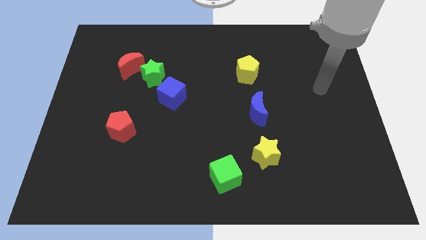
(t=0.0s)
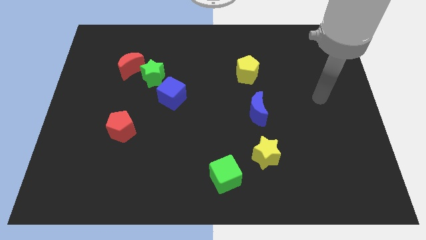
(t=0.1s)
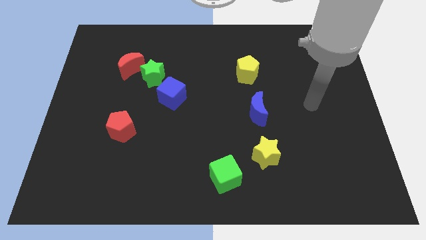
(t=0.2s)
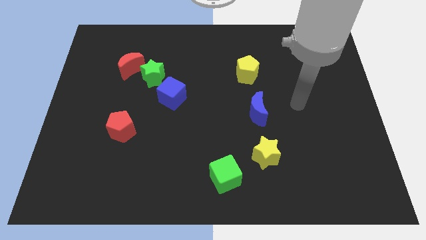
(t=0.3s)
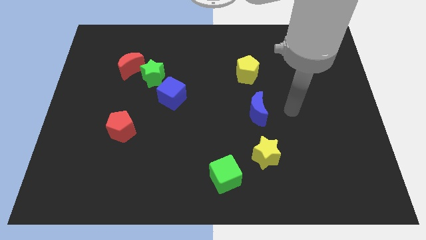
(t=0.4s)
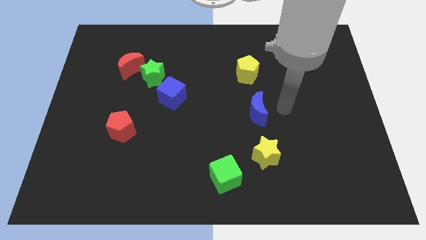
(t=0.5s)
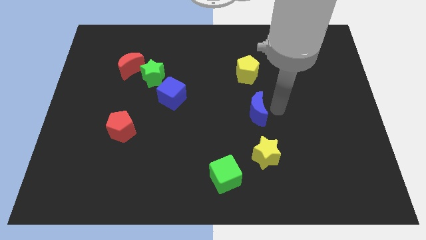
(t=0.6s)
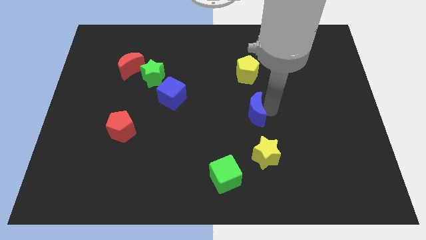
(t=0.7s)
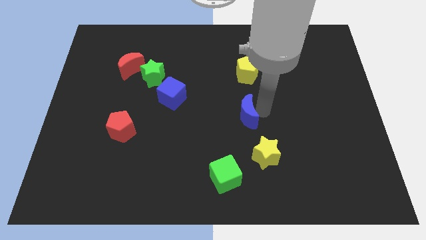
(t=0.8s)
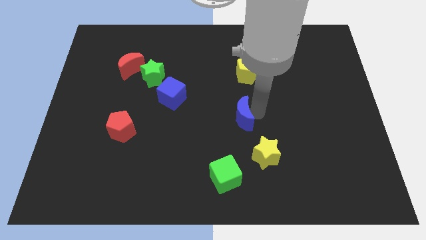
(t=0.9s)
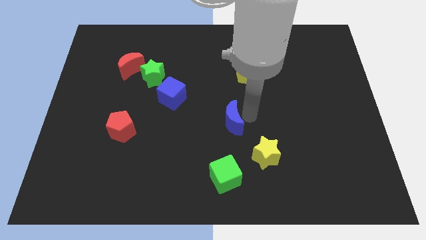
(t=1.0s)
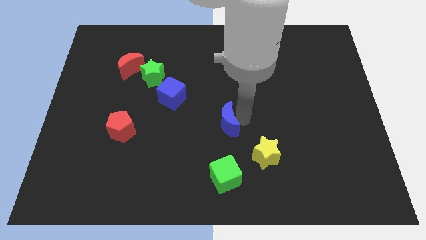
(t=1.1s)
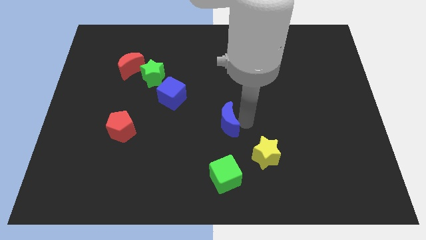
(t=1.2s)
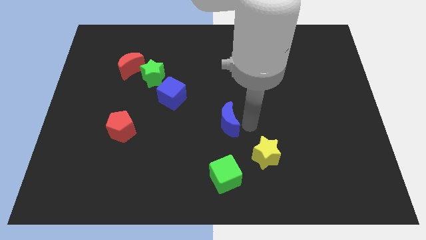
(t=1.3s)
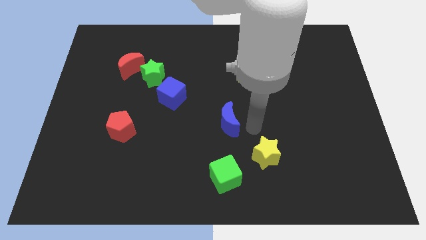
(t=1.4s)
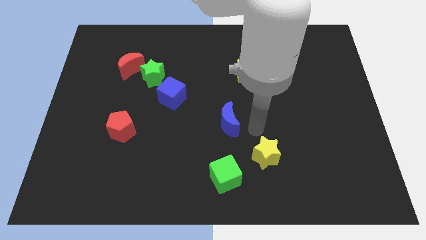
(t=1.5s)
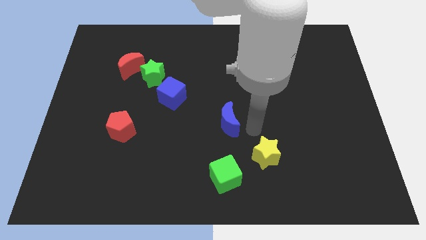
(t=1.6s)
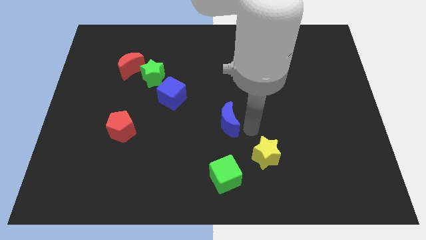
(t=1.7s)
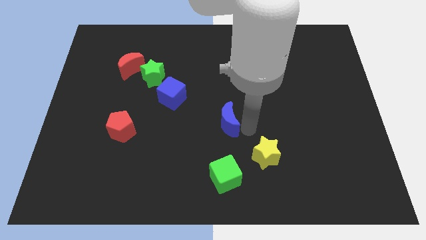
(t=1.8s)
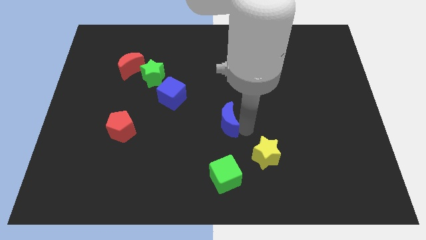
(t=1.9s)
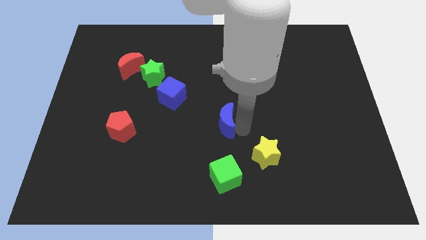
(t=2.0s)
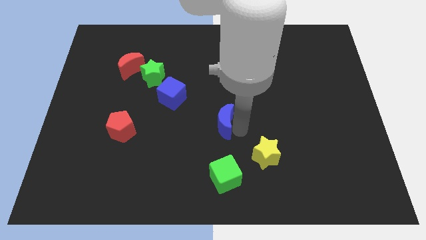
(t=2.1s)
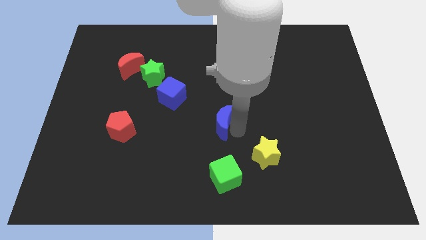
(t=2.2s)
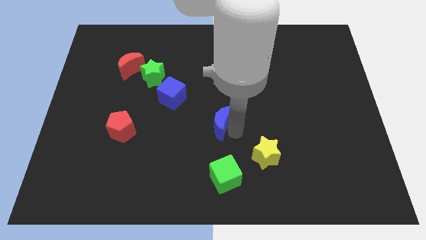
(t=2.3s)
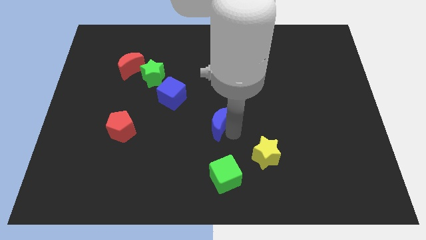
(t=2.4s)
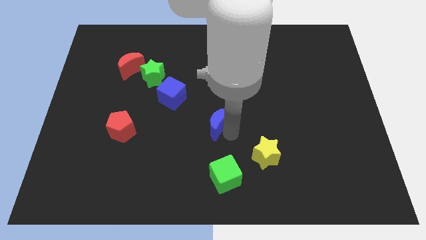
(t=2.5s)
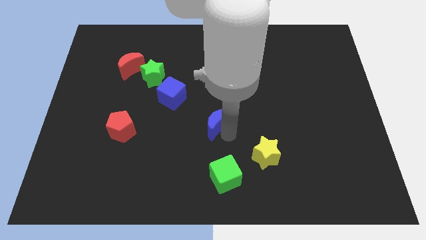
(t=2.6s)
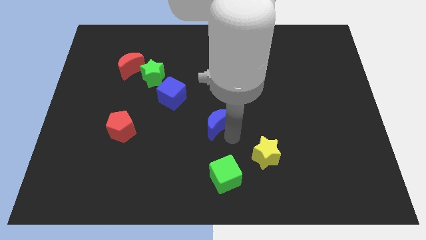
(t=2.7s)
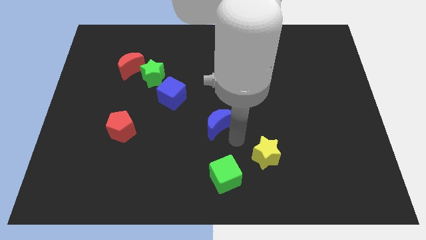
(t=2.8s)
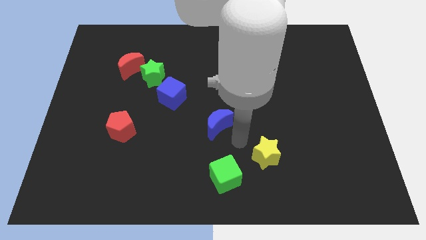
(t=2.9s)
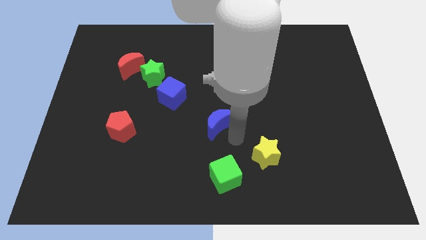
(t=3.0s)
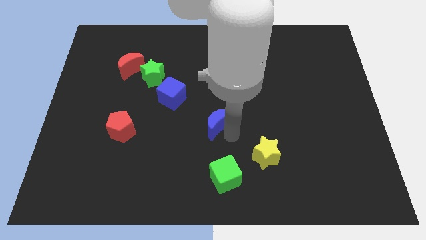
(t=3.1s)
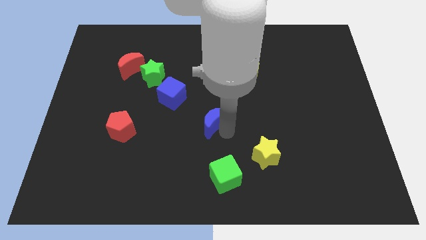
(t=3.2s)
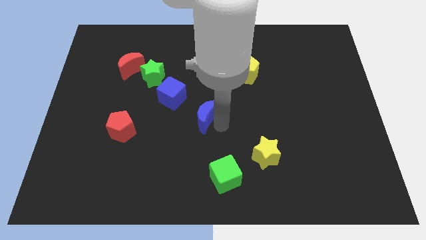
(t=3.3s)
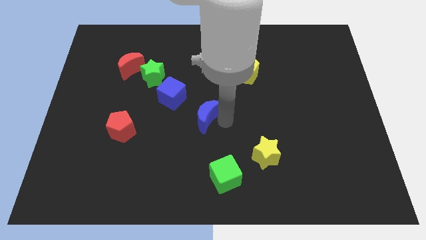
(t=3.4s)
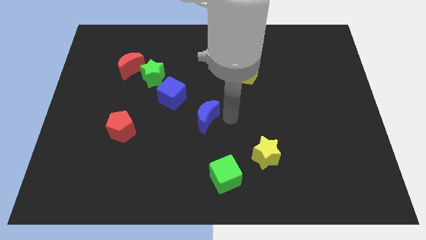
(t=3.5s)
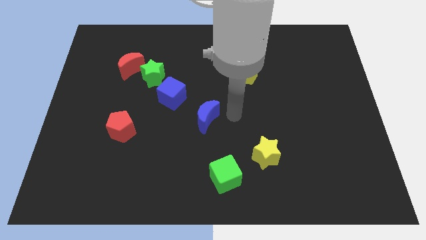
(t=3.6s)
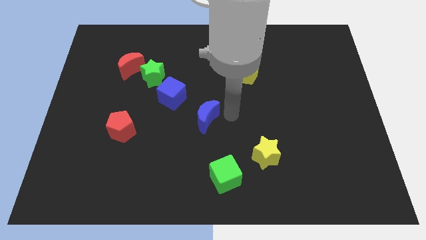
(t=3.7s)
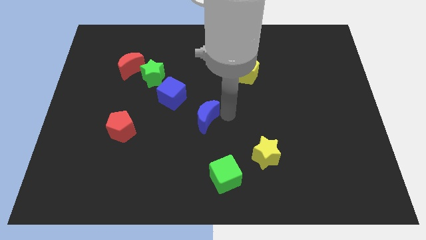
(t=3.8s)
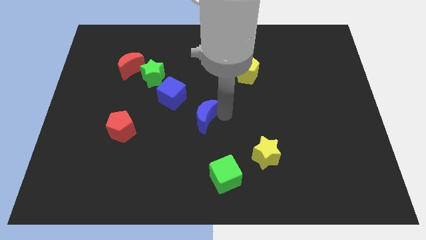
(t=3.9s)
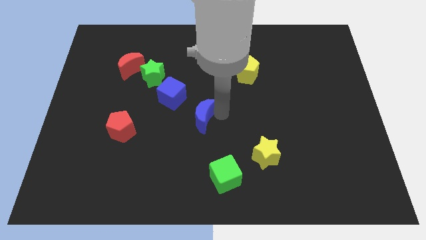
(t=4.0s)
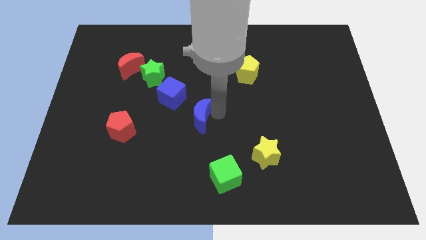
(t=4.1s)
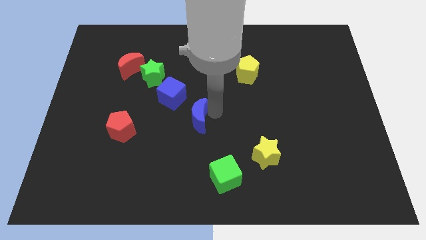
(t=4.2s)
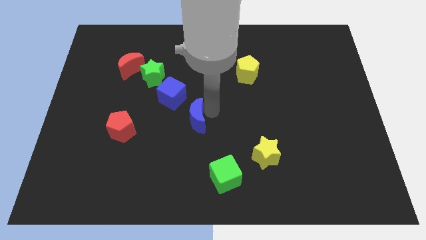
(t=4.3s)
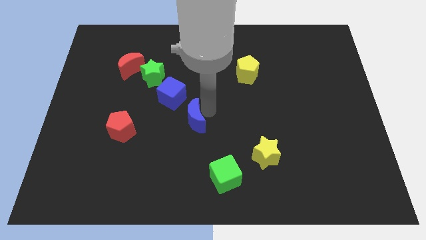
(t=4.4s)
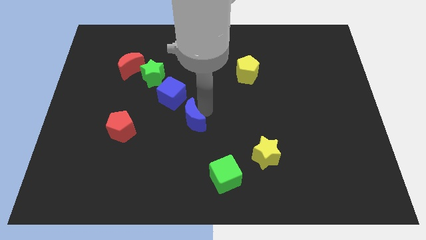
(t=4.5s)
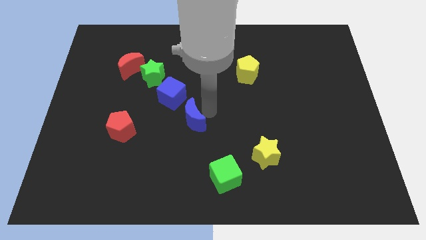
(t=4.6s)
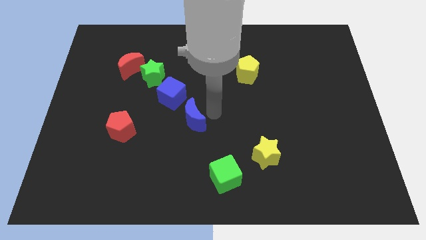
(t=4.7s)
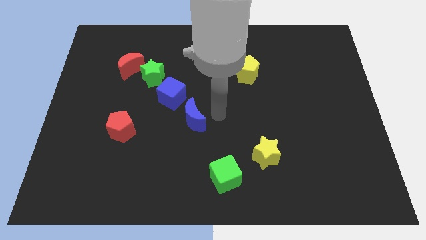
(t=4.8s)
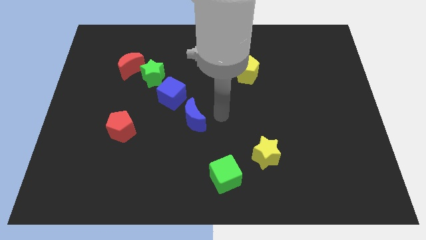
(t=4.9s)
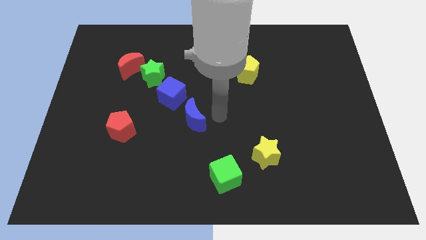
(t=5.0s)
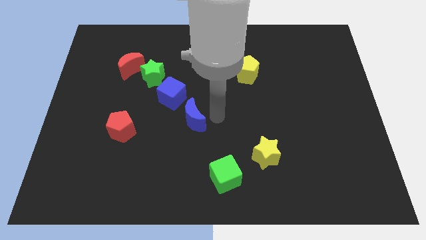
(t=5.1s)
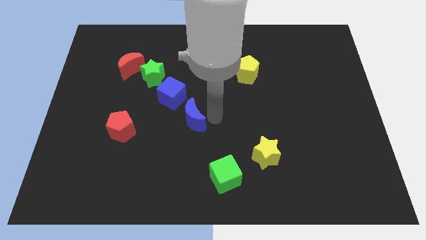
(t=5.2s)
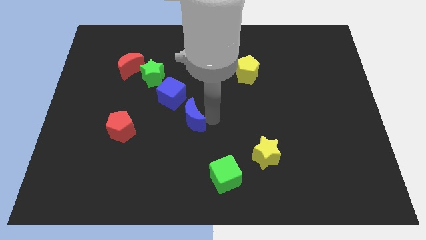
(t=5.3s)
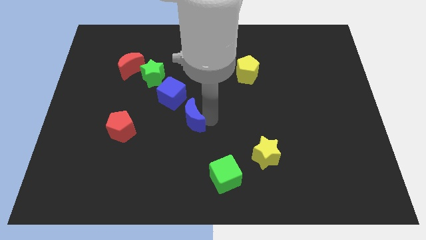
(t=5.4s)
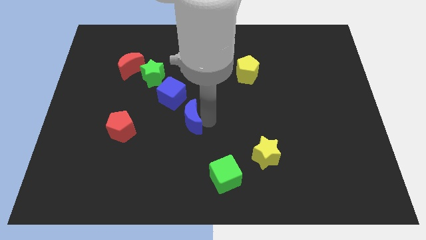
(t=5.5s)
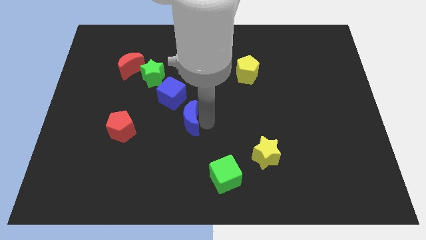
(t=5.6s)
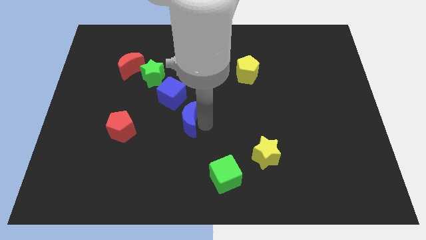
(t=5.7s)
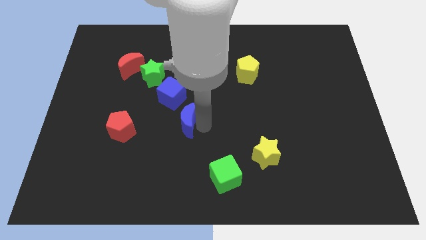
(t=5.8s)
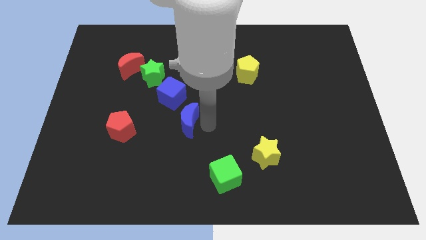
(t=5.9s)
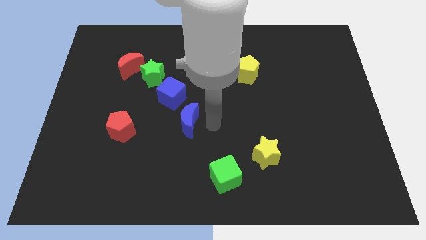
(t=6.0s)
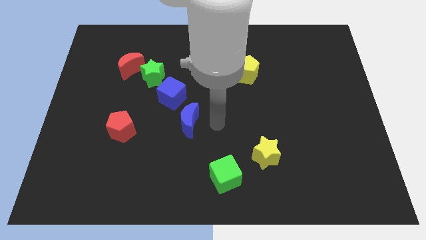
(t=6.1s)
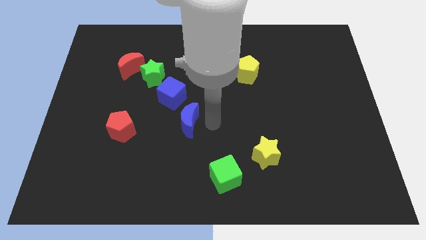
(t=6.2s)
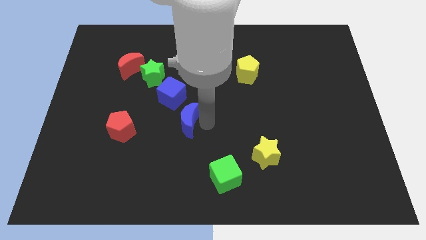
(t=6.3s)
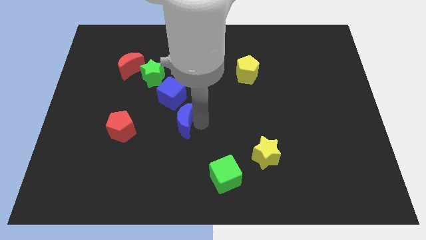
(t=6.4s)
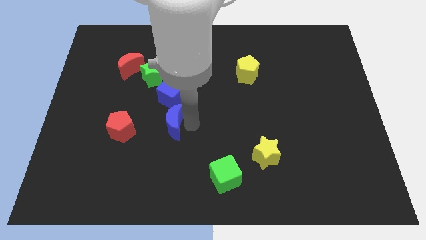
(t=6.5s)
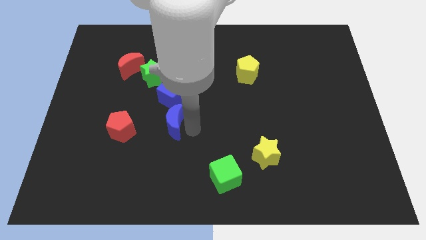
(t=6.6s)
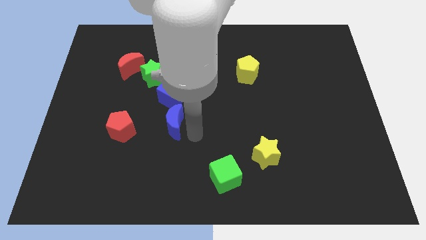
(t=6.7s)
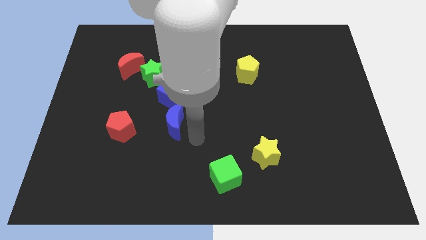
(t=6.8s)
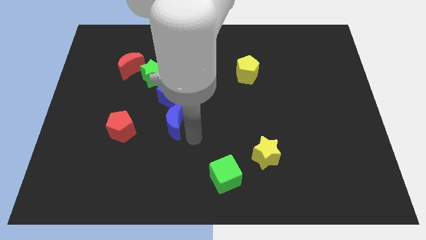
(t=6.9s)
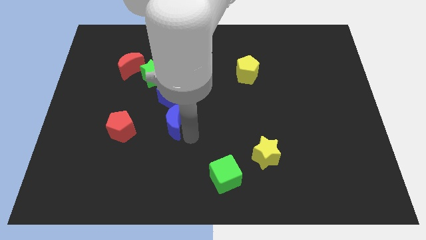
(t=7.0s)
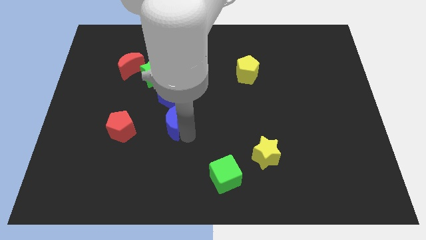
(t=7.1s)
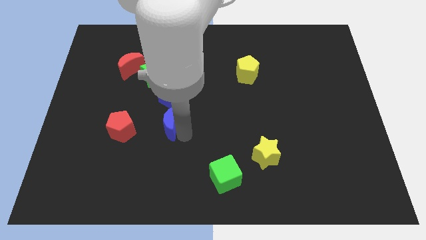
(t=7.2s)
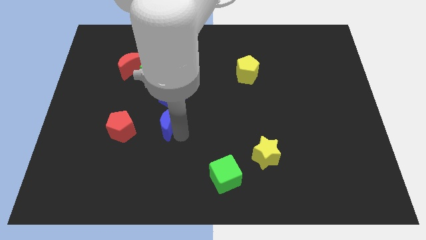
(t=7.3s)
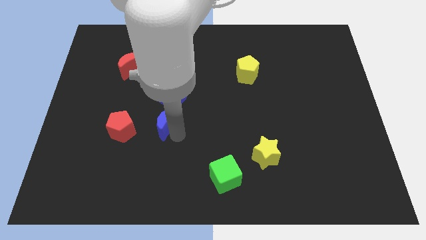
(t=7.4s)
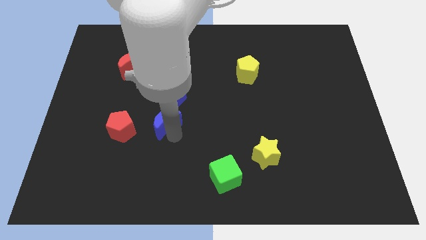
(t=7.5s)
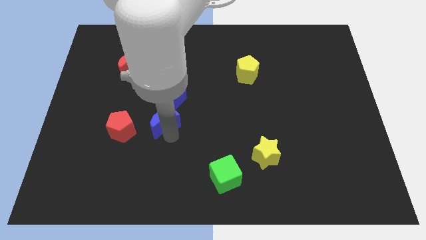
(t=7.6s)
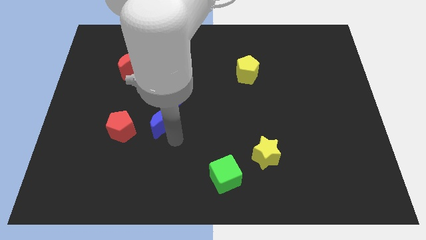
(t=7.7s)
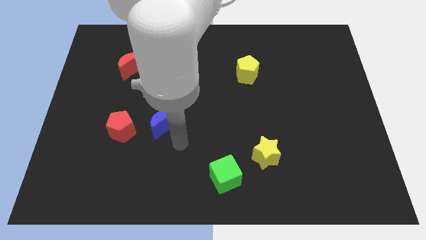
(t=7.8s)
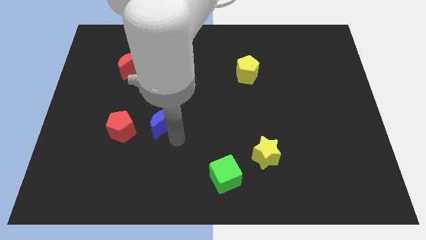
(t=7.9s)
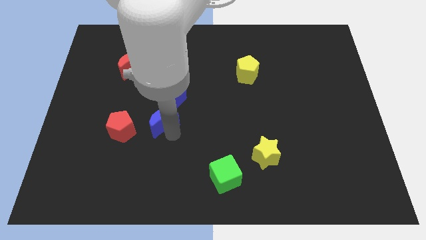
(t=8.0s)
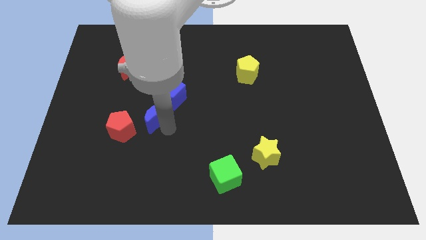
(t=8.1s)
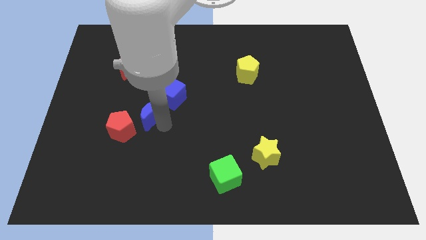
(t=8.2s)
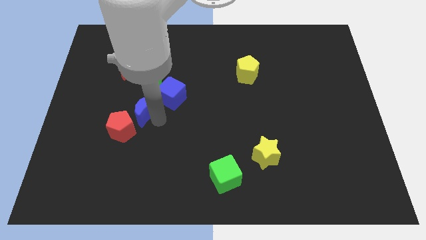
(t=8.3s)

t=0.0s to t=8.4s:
move the blue moon left of the blue cube
